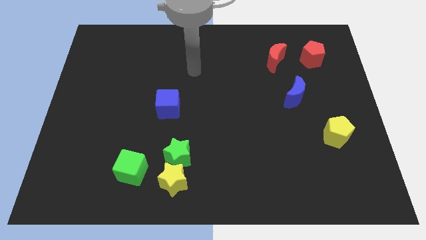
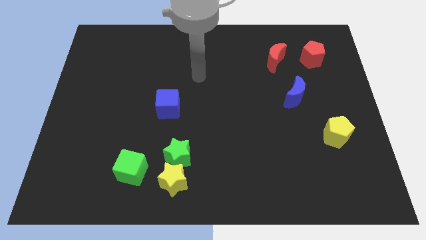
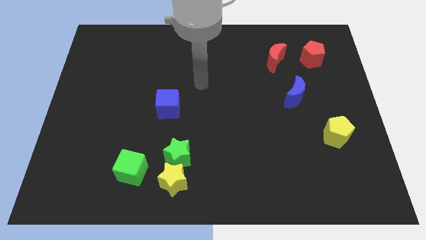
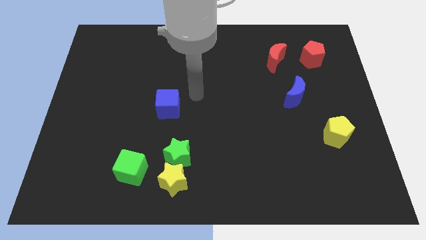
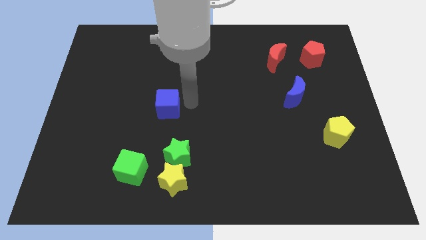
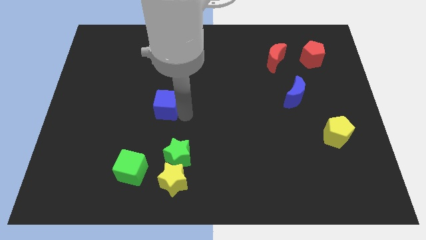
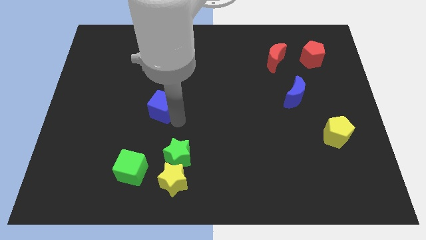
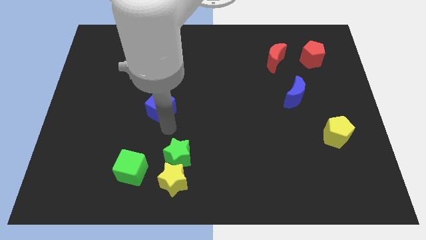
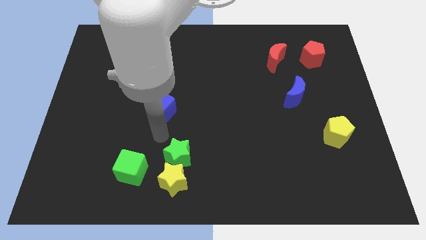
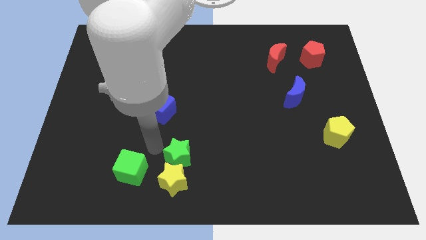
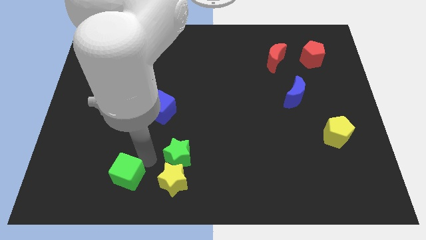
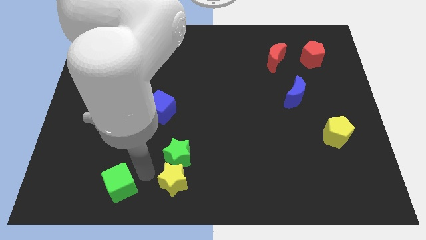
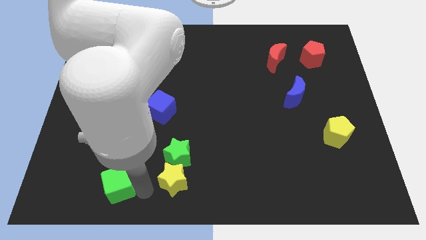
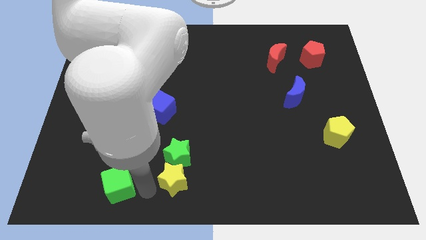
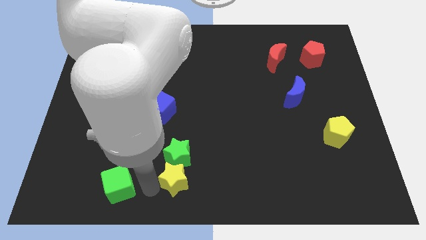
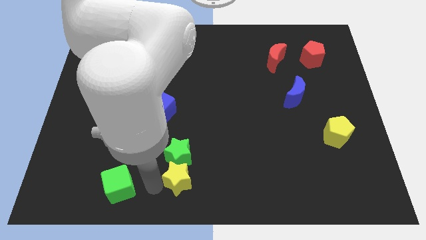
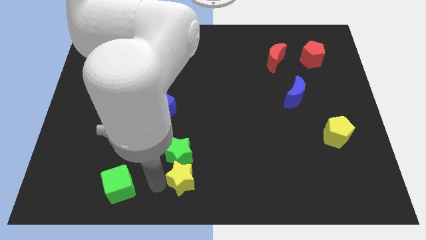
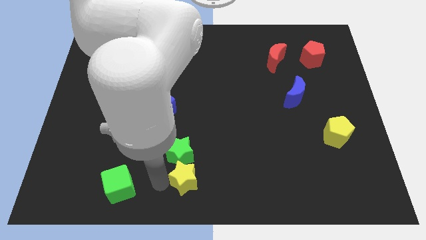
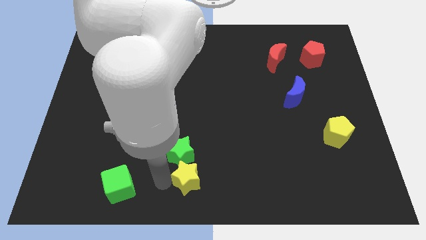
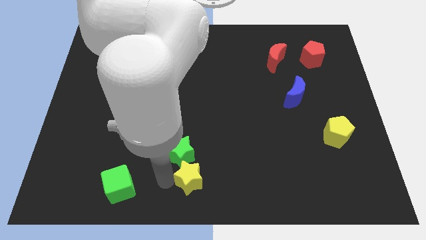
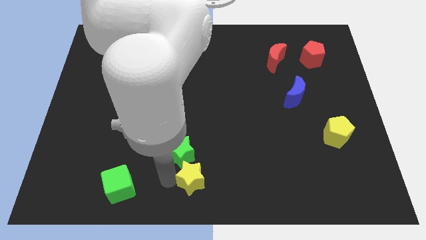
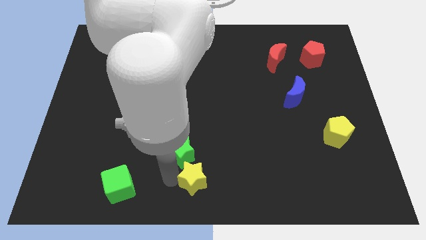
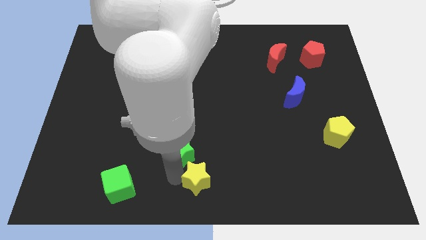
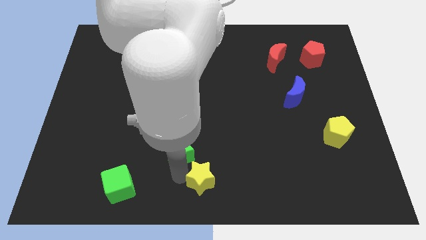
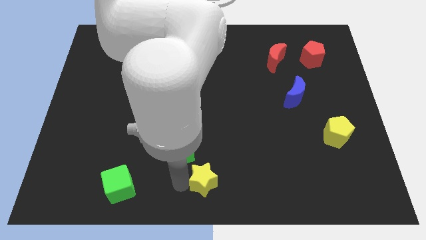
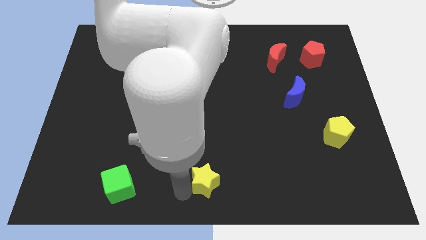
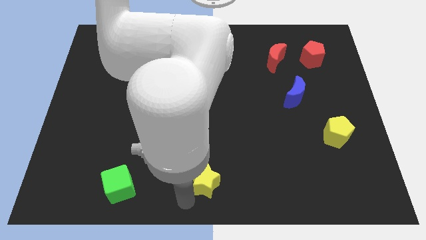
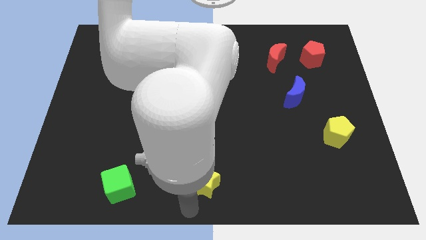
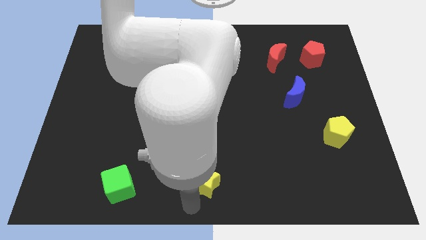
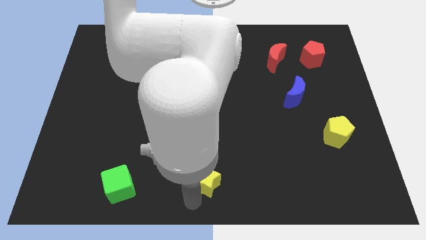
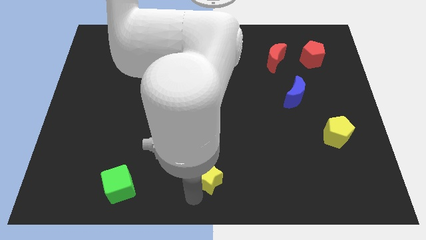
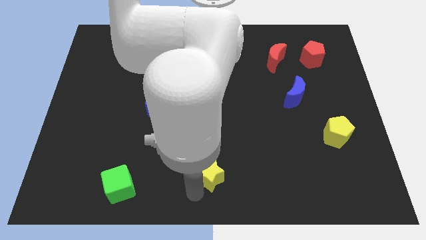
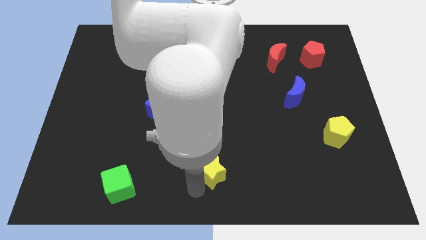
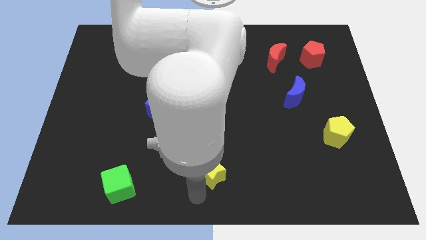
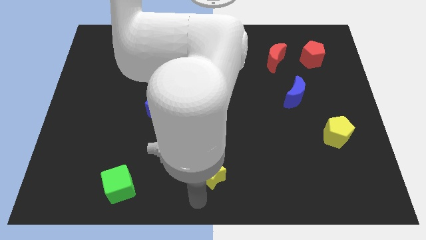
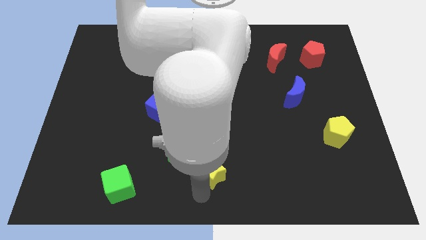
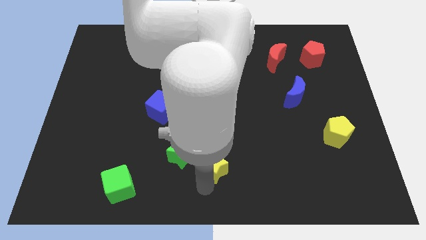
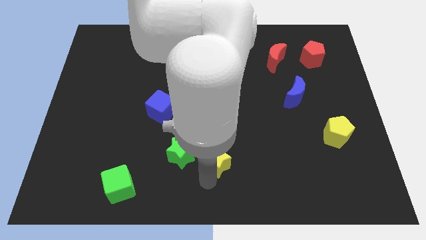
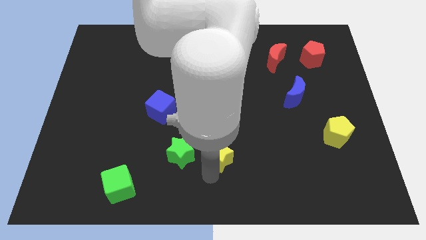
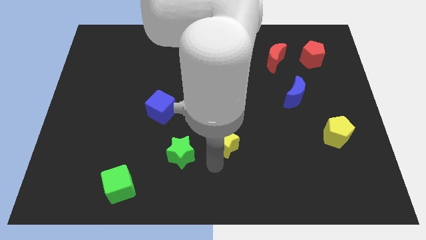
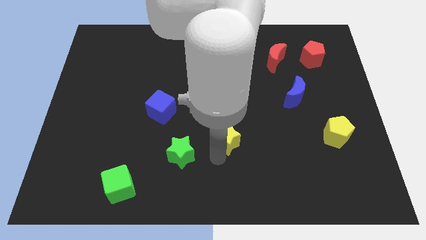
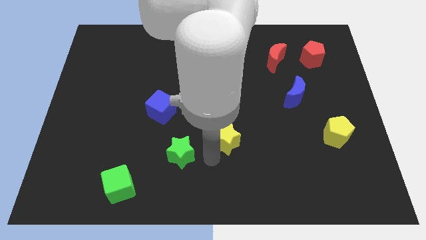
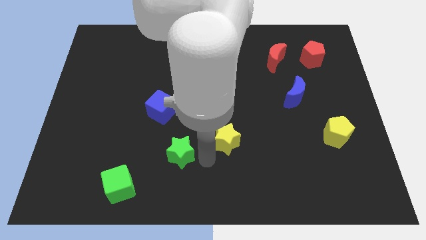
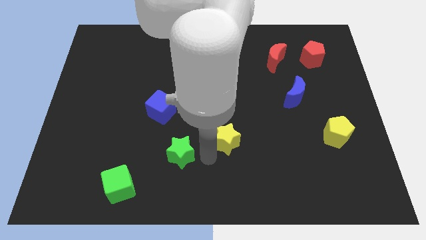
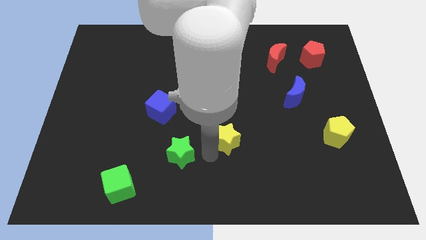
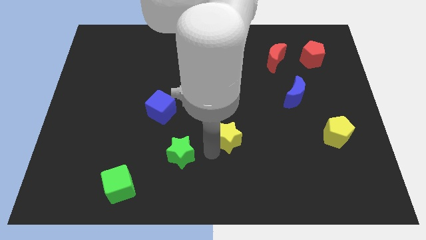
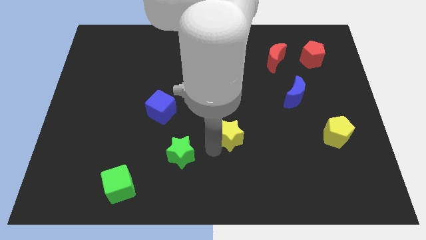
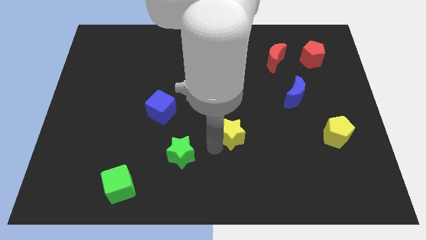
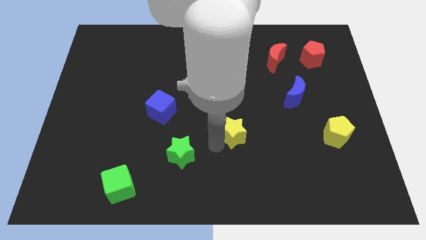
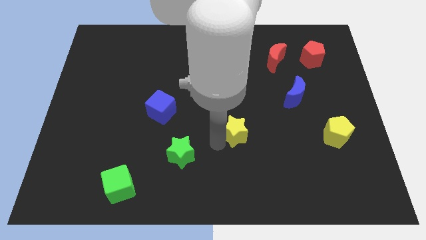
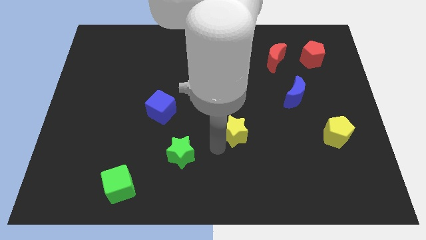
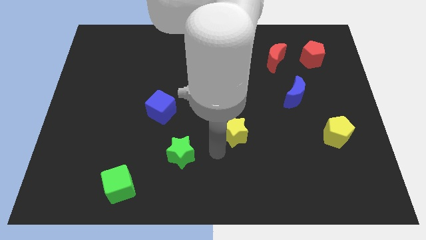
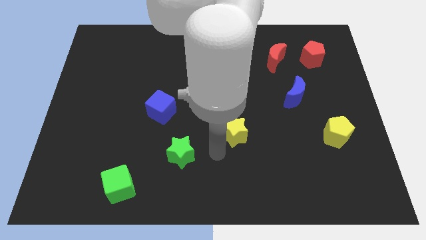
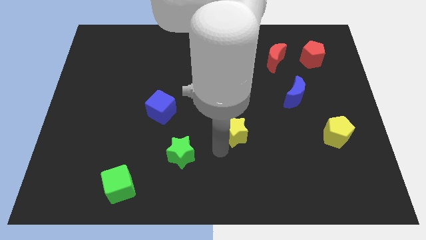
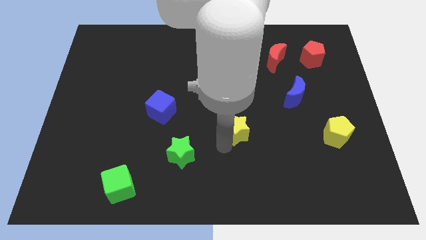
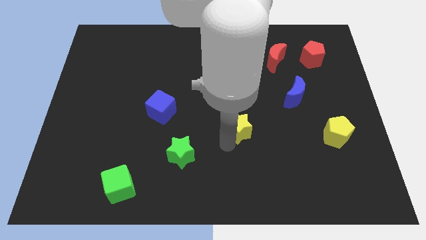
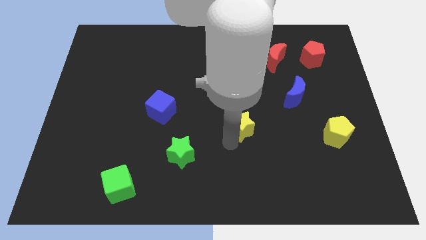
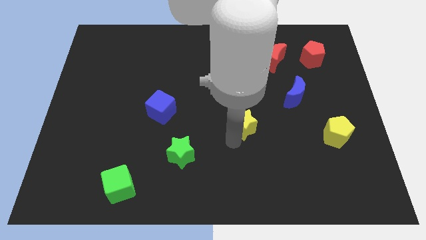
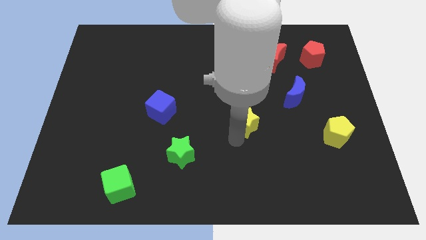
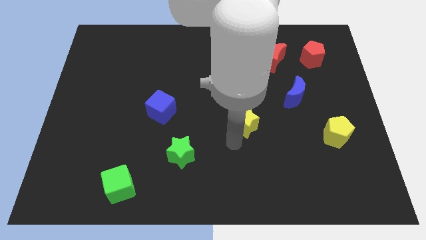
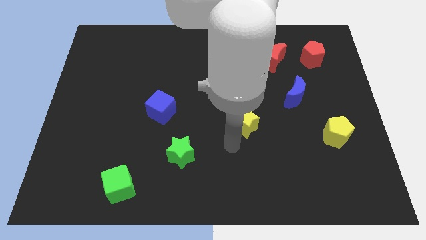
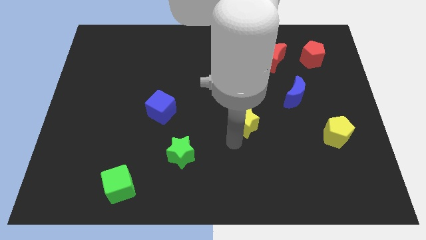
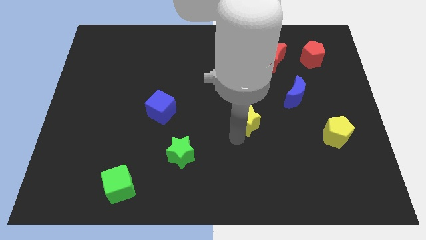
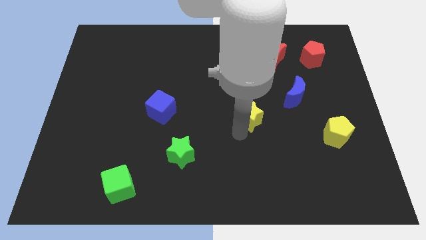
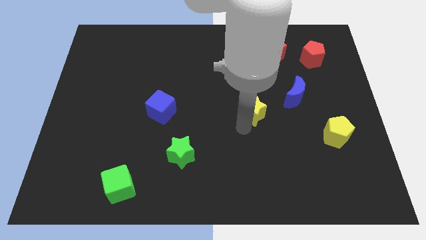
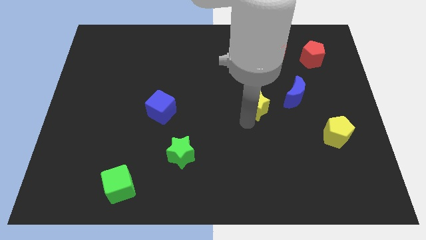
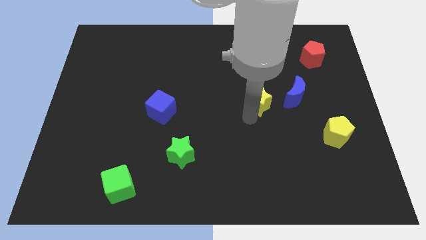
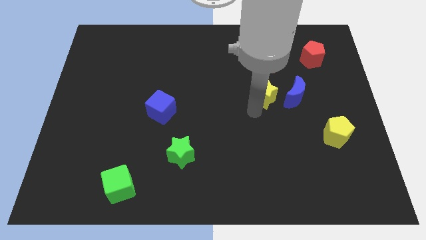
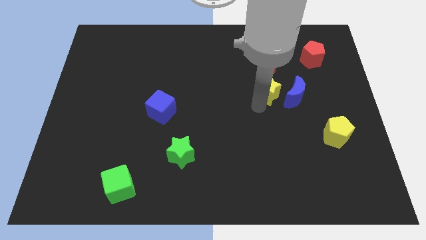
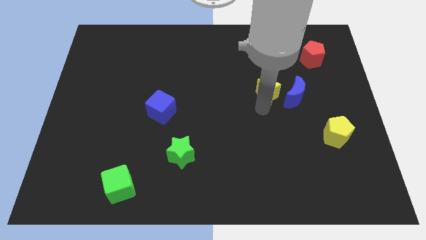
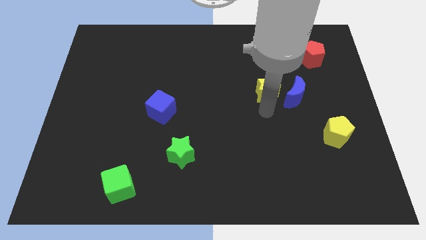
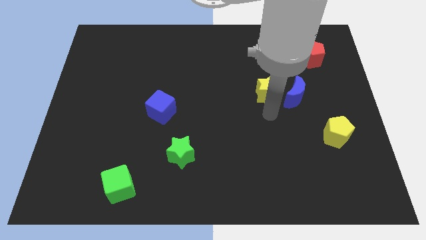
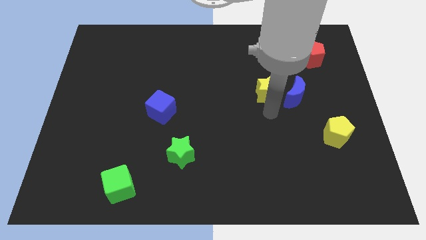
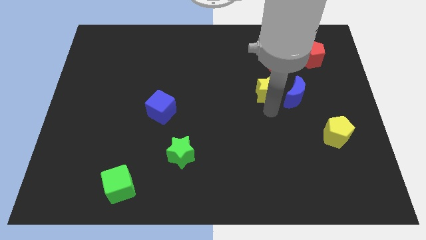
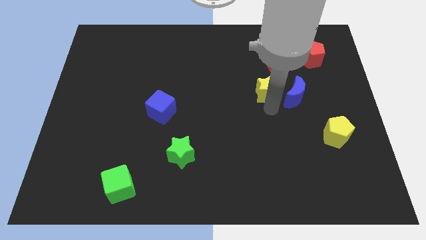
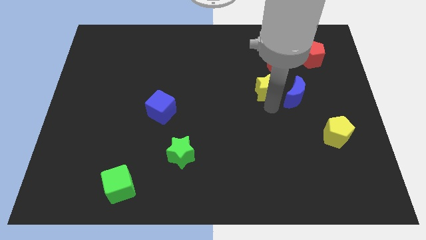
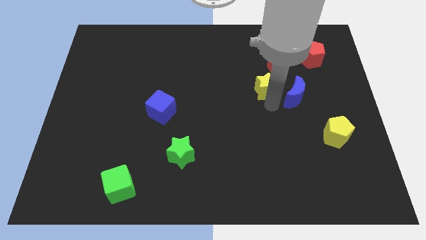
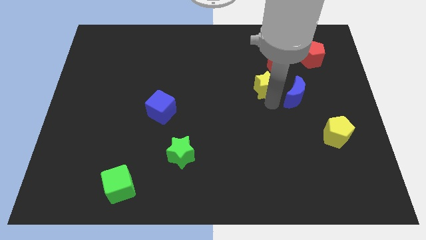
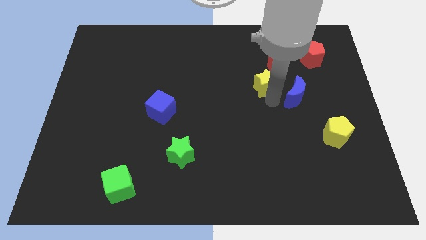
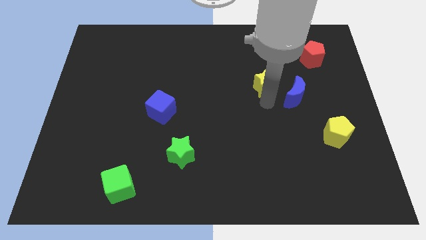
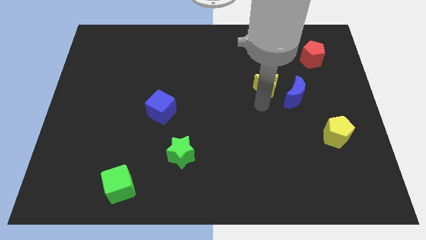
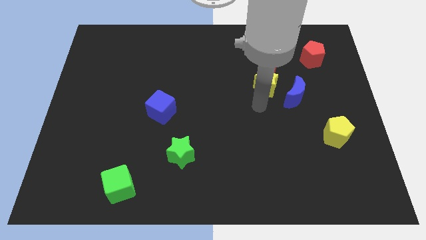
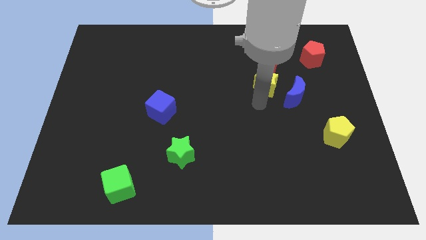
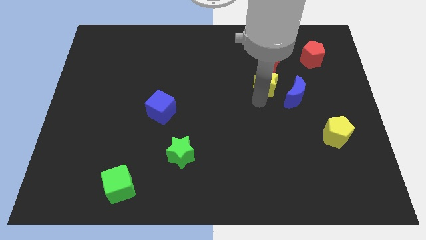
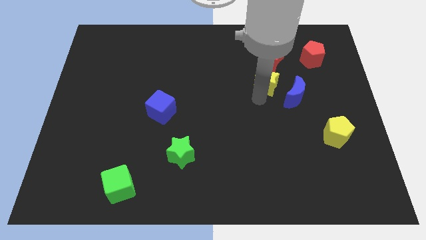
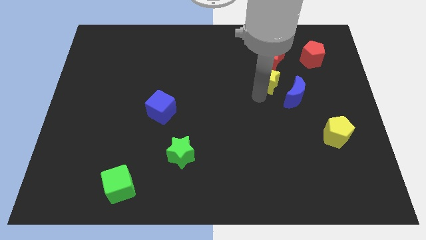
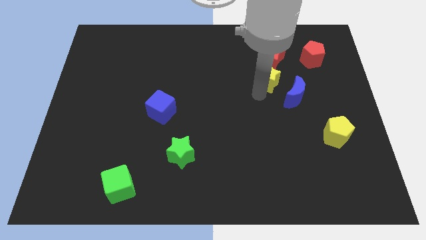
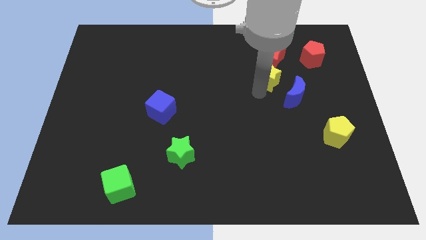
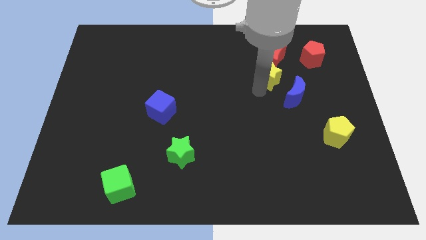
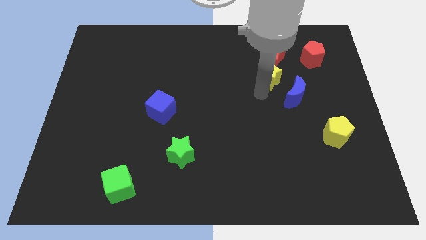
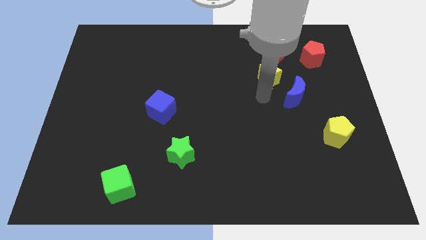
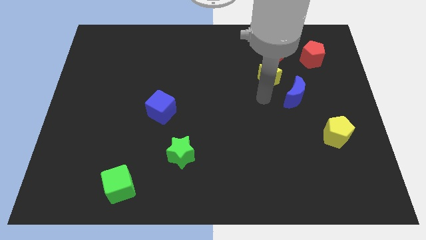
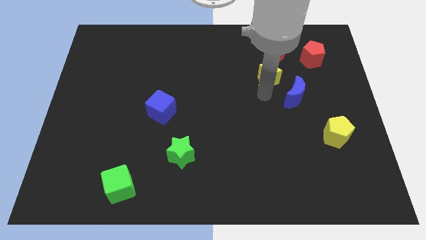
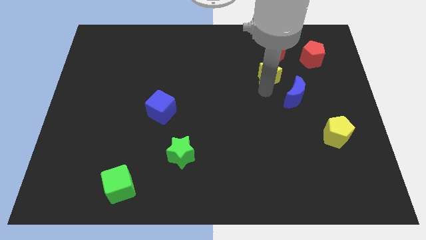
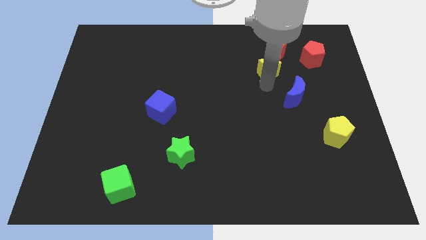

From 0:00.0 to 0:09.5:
move the yellow star to the red moon
